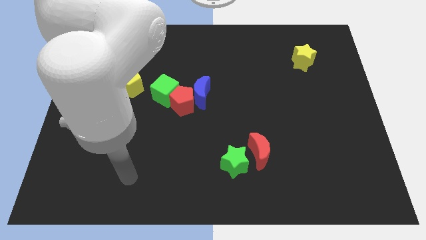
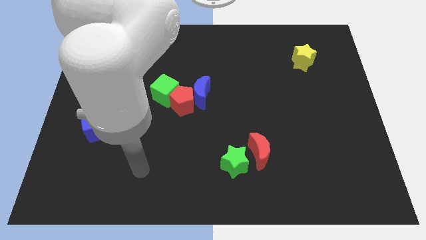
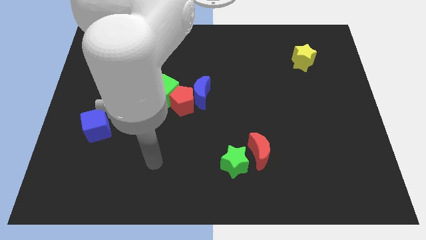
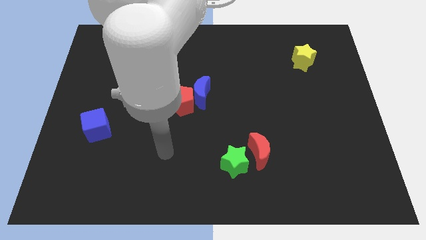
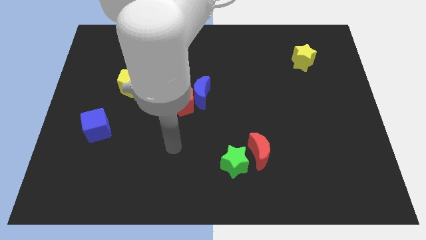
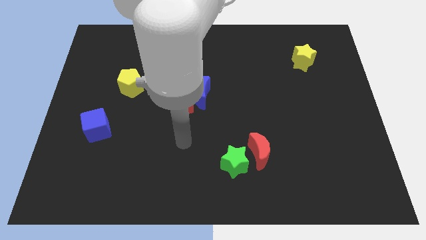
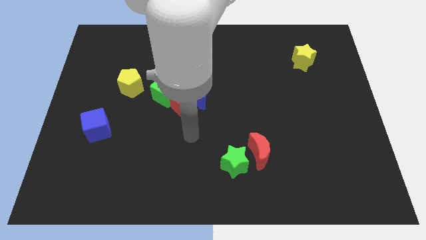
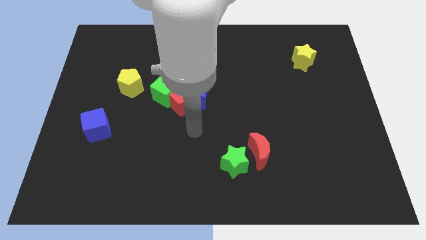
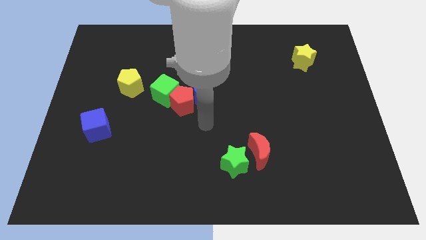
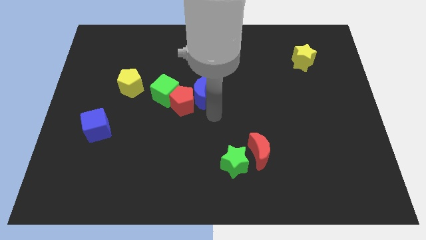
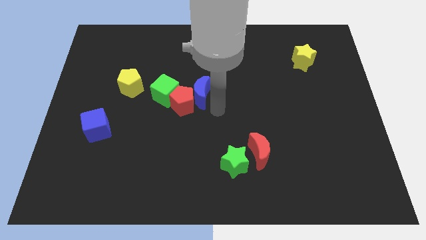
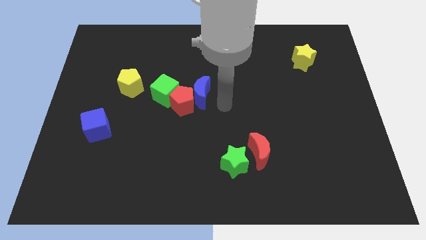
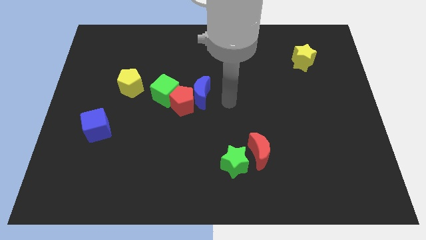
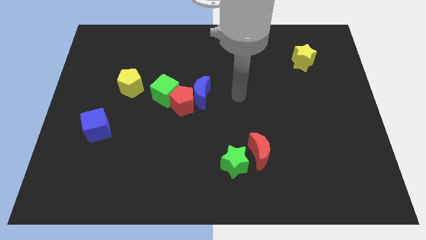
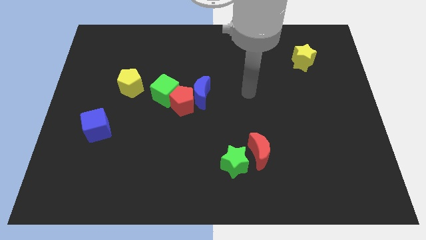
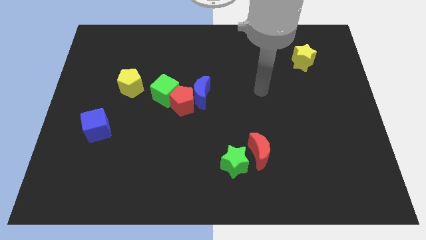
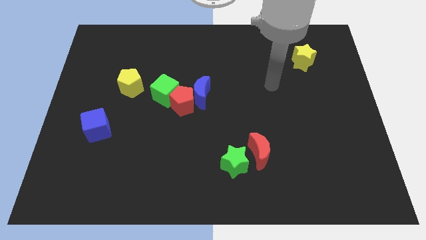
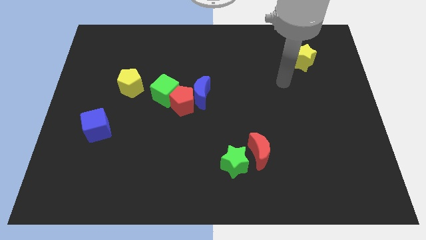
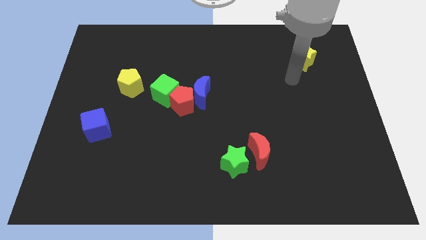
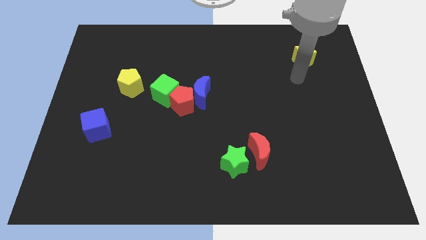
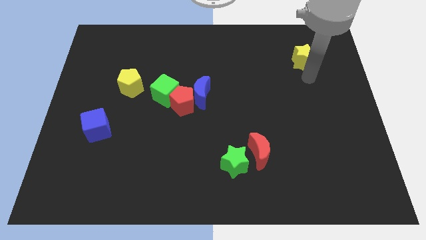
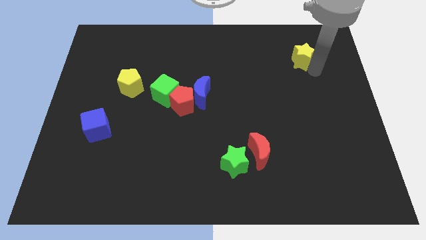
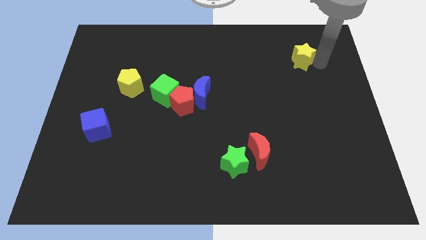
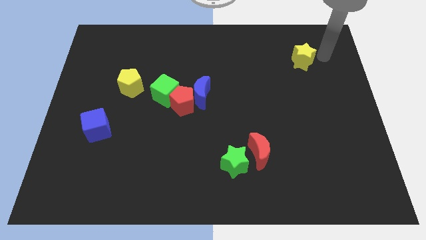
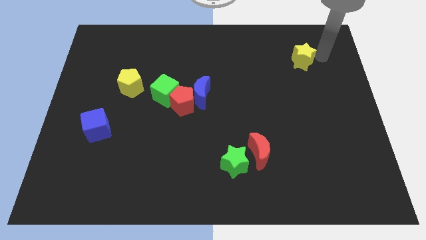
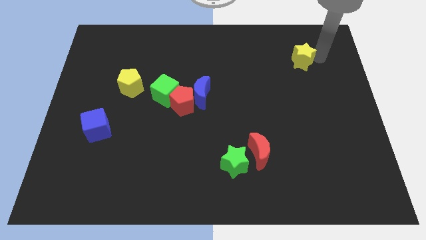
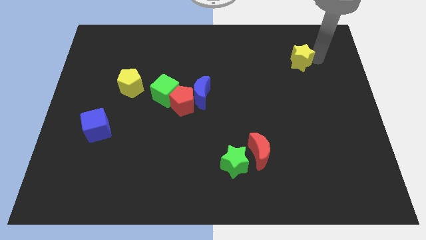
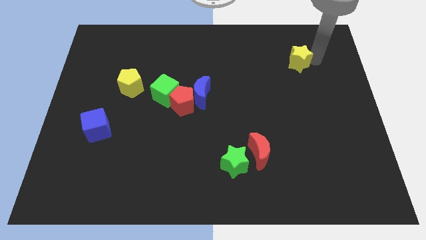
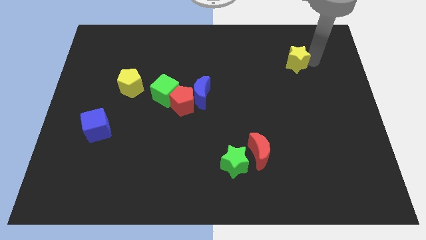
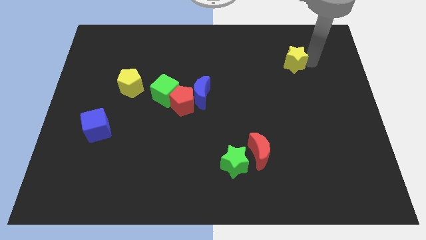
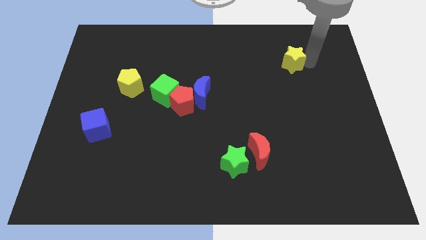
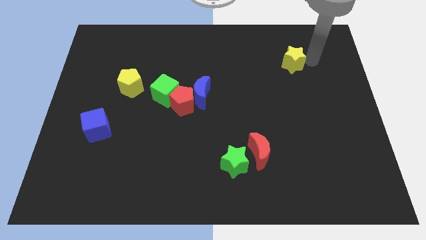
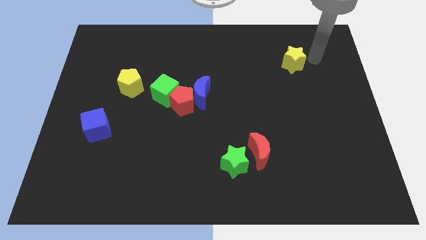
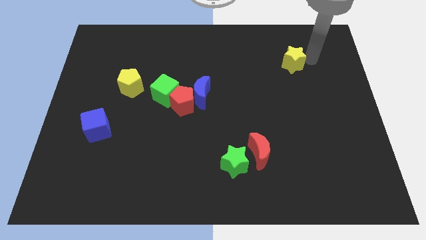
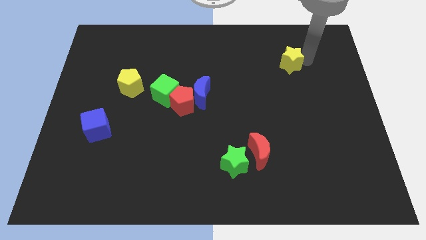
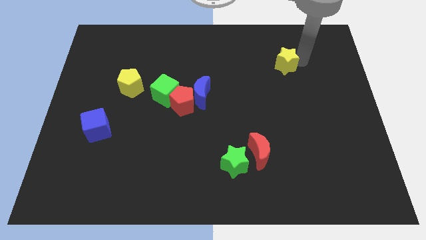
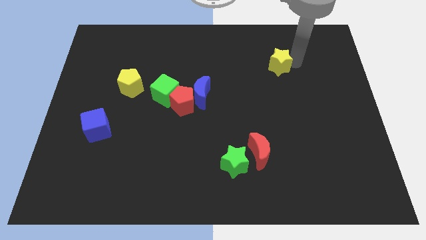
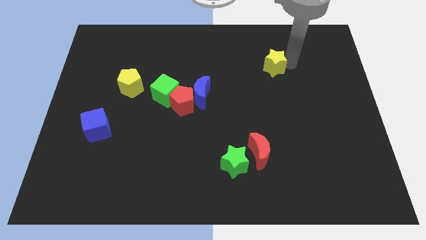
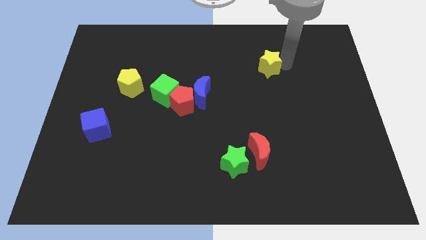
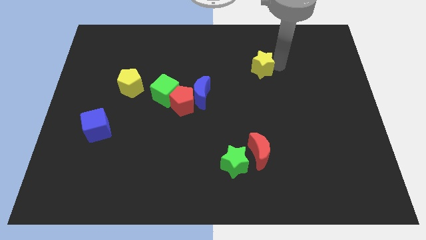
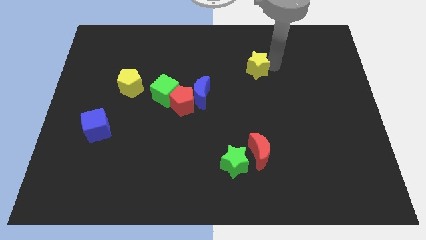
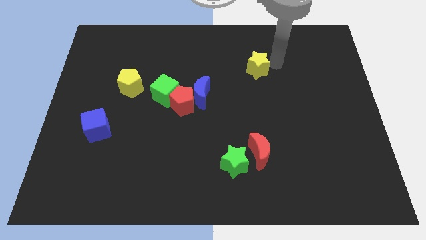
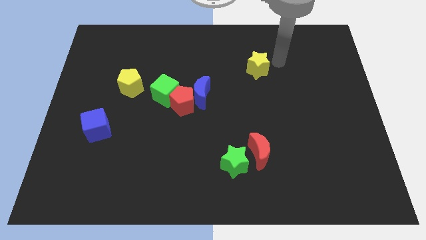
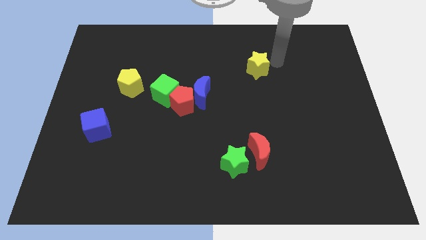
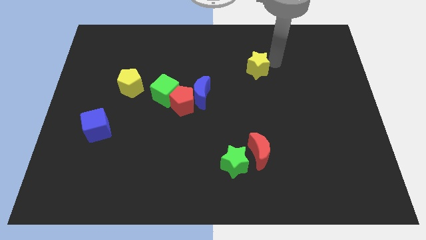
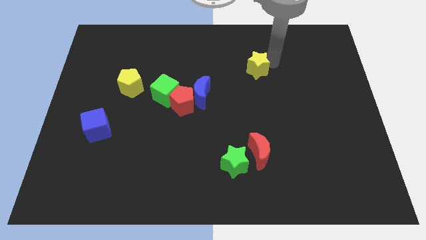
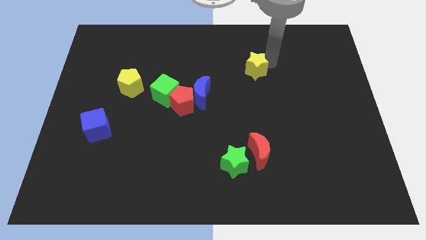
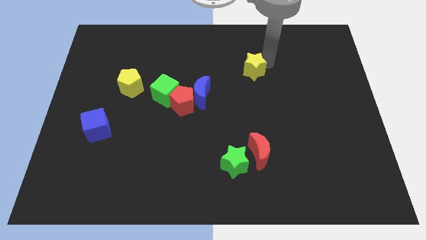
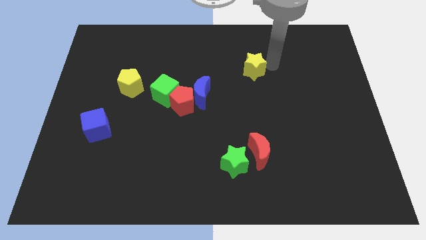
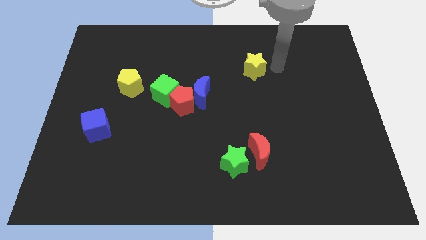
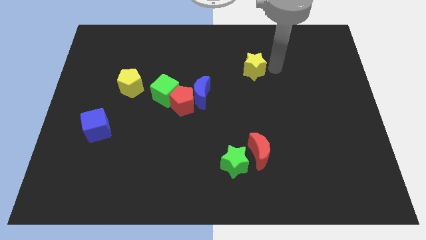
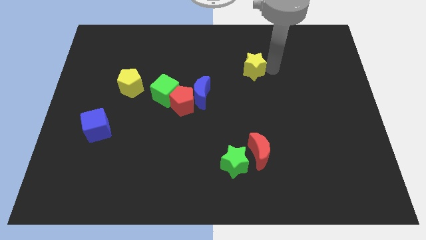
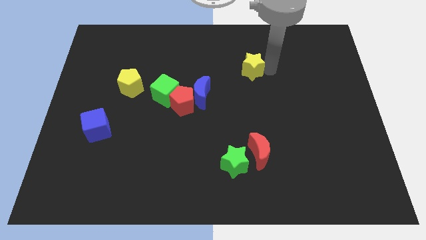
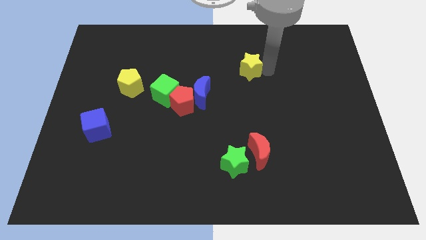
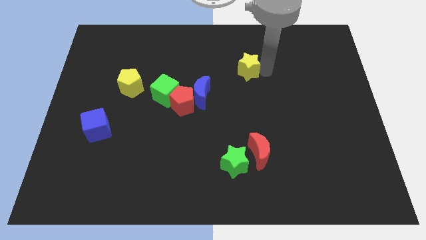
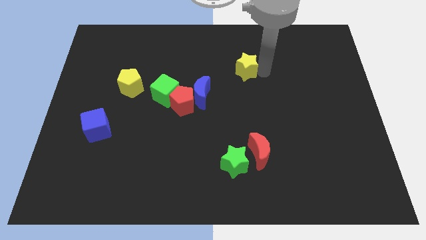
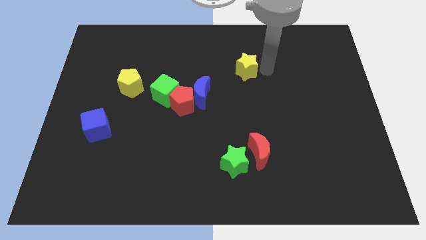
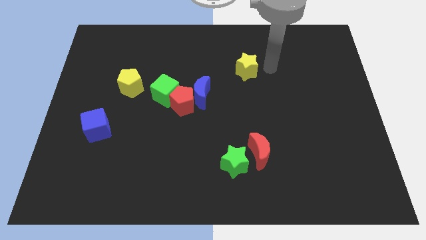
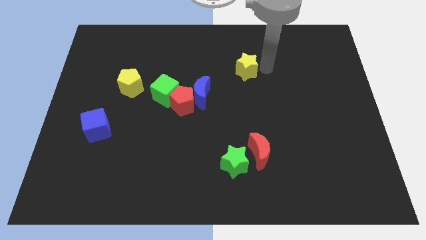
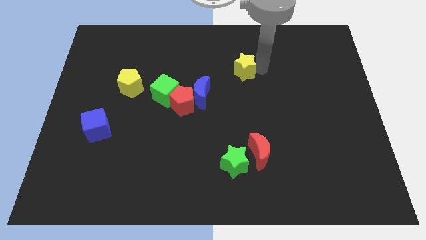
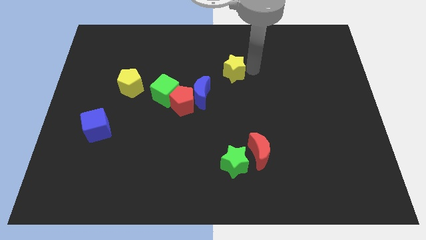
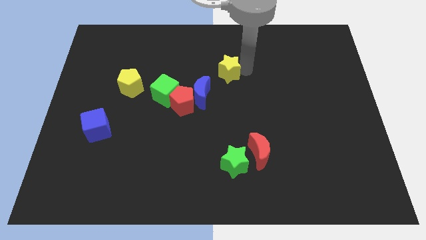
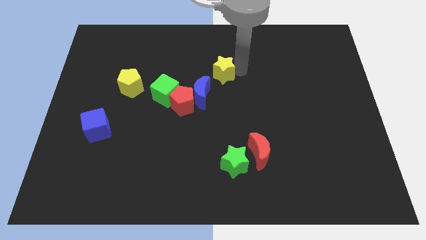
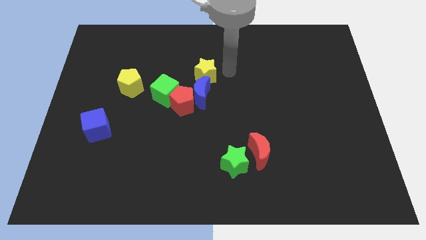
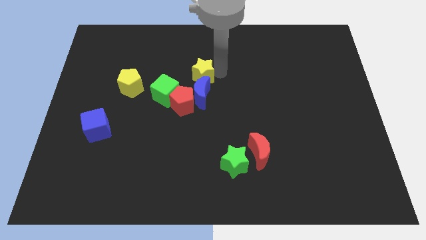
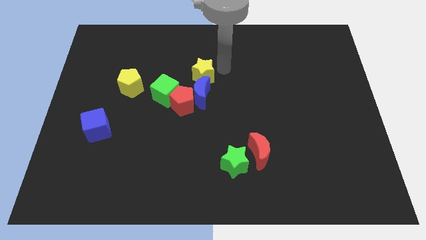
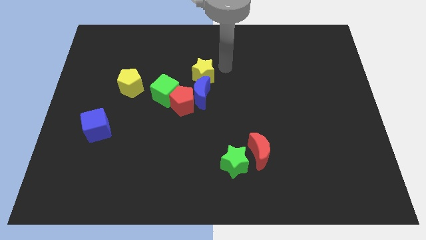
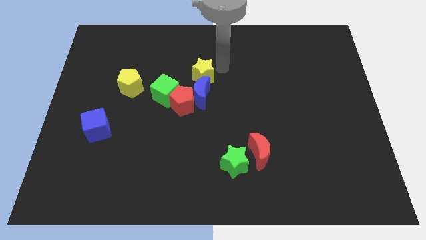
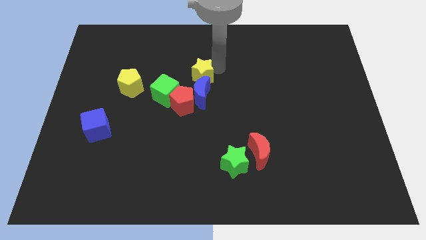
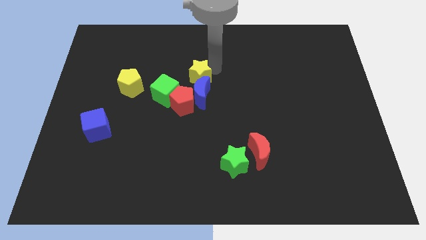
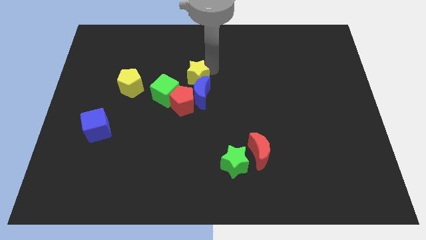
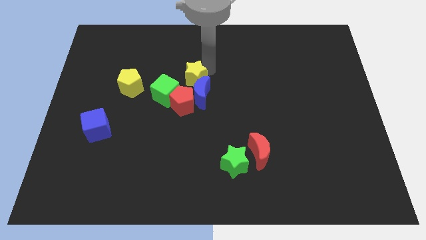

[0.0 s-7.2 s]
put the yellow star just right of the yellow pentagon
